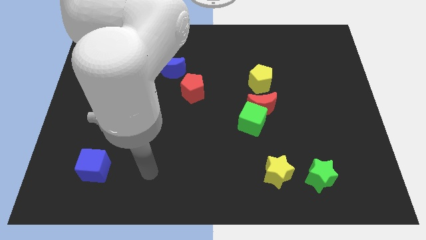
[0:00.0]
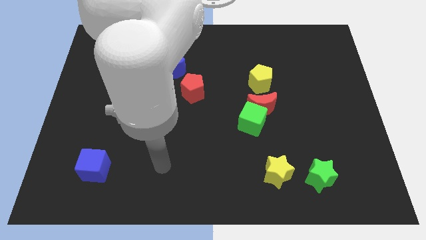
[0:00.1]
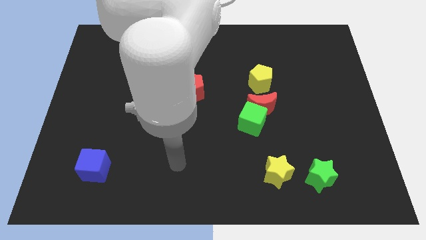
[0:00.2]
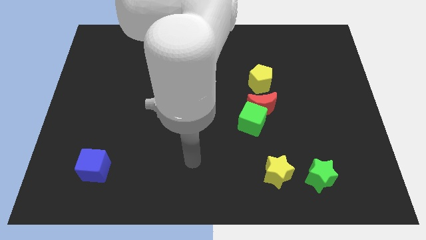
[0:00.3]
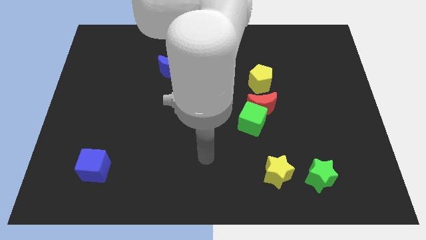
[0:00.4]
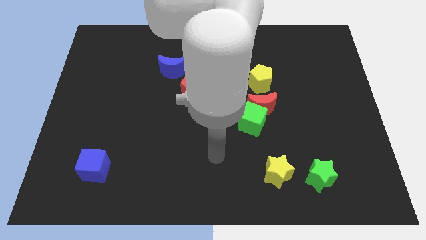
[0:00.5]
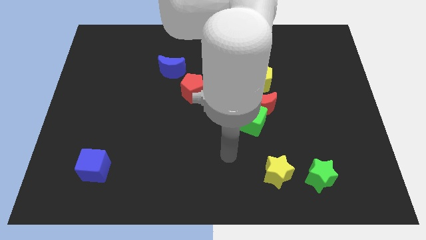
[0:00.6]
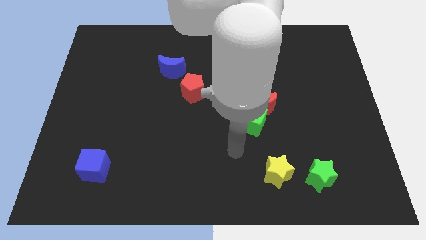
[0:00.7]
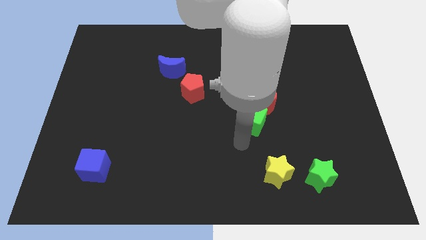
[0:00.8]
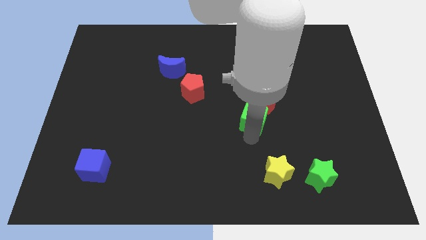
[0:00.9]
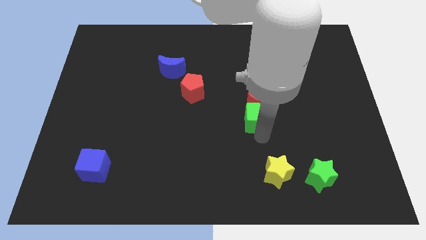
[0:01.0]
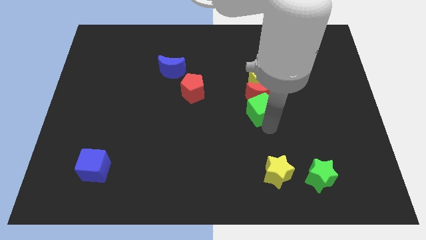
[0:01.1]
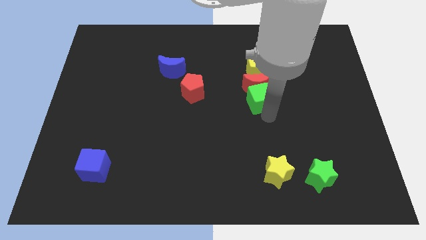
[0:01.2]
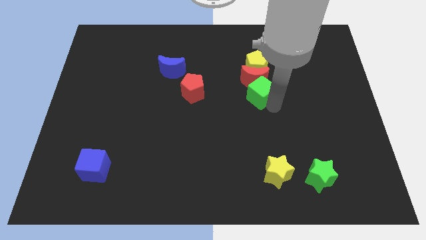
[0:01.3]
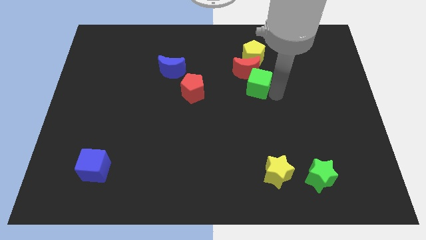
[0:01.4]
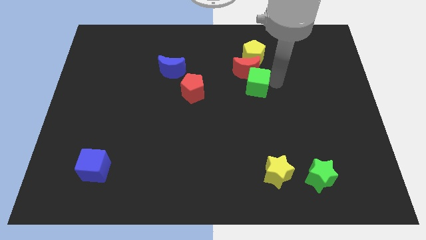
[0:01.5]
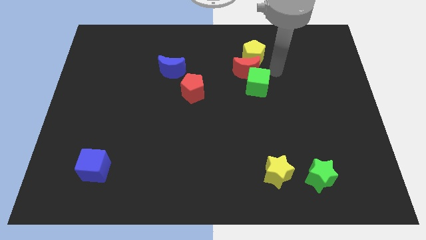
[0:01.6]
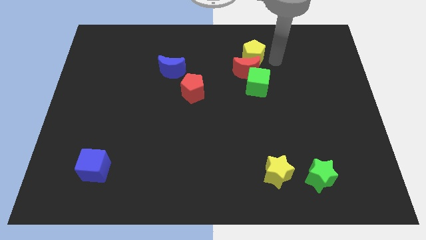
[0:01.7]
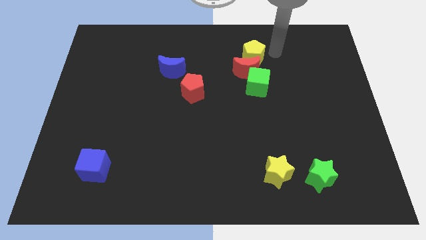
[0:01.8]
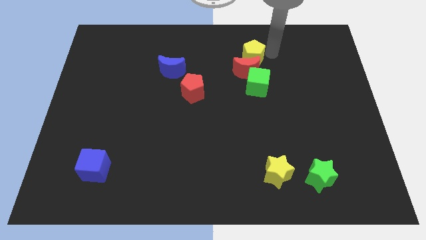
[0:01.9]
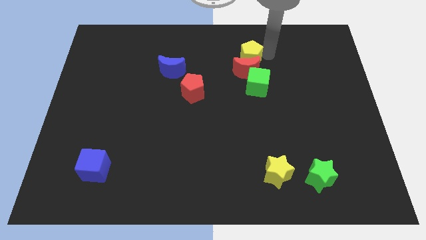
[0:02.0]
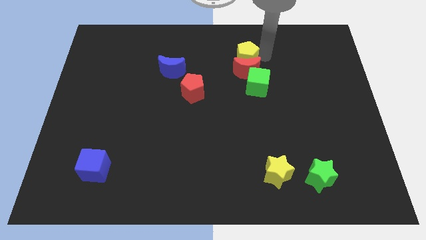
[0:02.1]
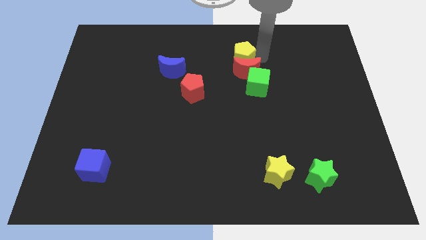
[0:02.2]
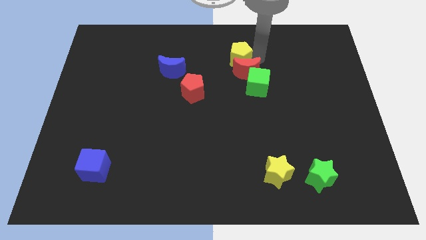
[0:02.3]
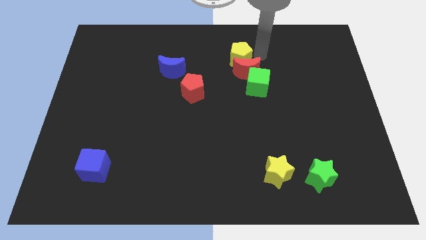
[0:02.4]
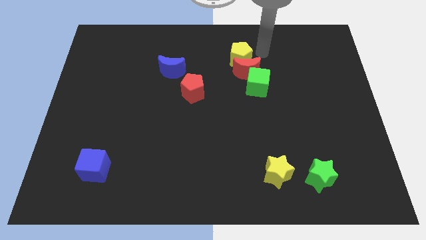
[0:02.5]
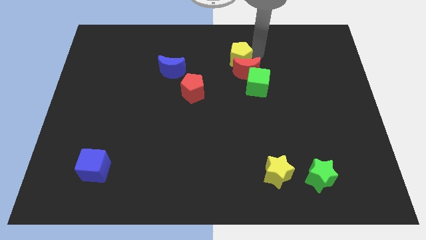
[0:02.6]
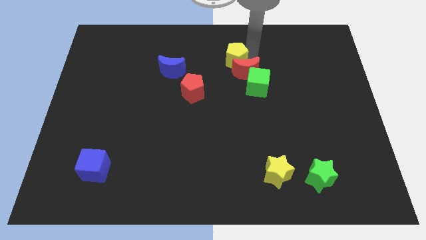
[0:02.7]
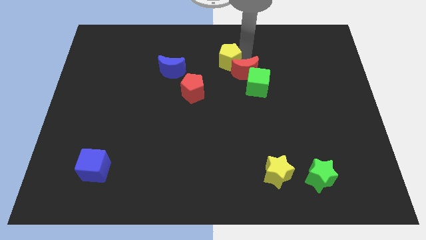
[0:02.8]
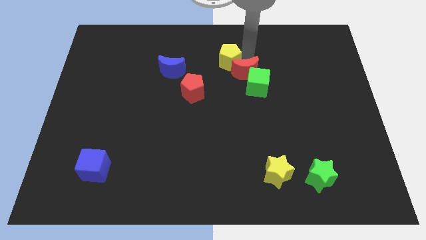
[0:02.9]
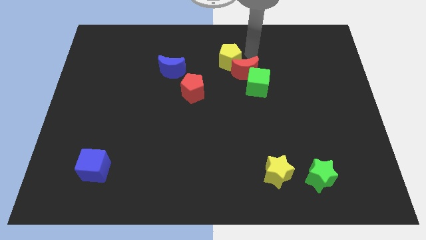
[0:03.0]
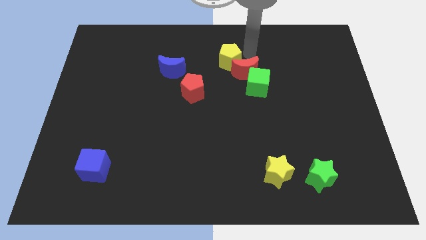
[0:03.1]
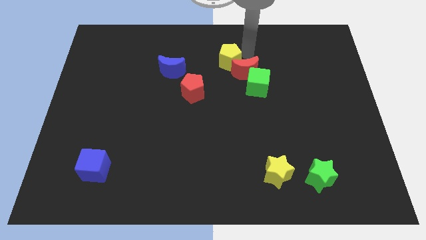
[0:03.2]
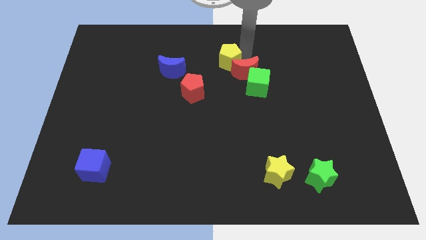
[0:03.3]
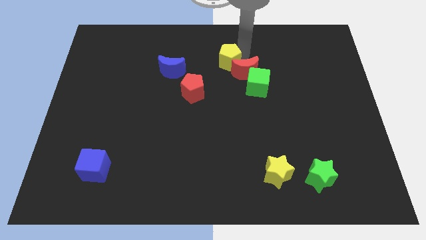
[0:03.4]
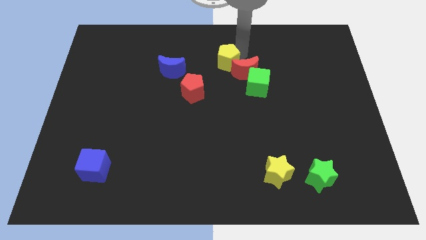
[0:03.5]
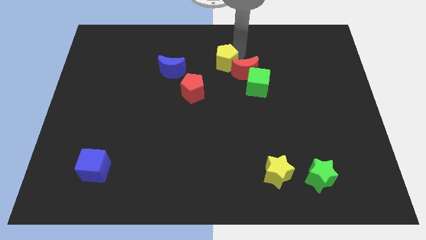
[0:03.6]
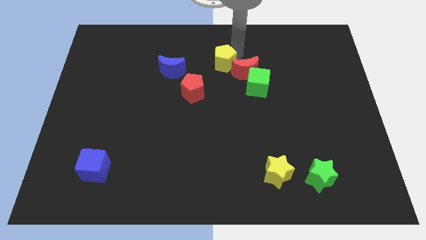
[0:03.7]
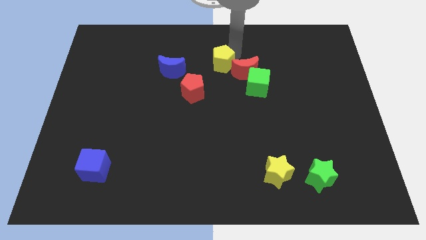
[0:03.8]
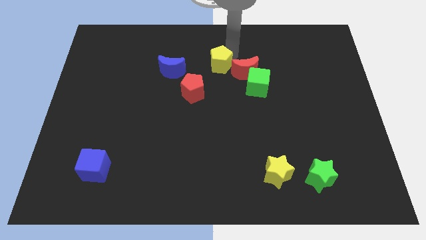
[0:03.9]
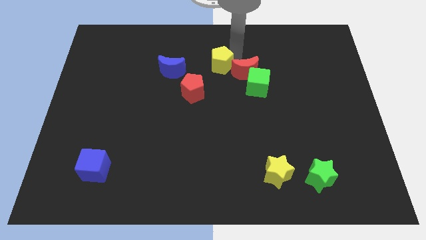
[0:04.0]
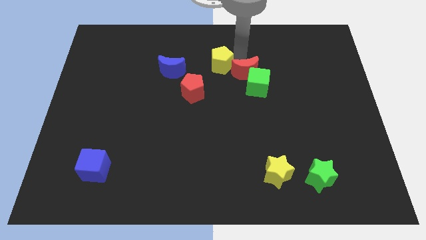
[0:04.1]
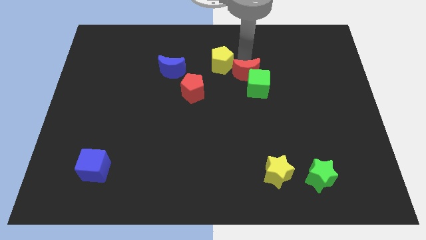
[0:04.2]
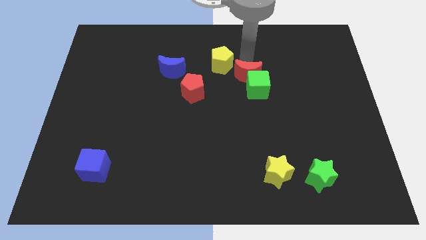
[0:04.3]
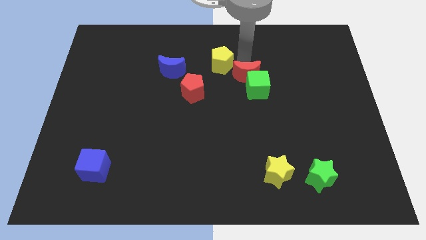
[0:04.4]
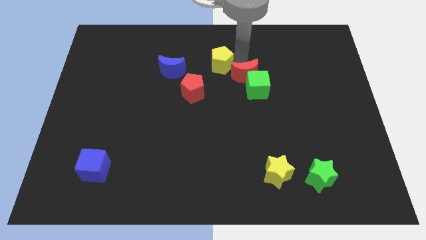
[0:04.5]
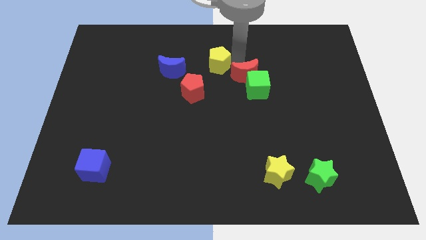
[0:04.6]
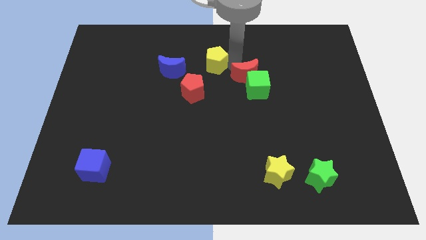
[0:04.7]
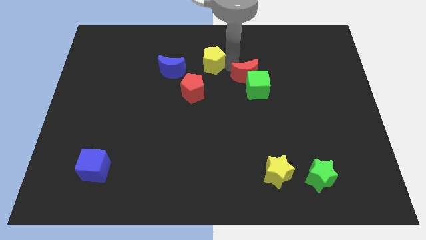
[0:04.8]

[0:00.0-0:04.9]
push the yellow pentagon to the top side of the red pentagon

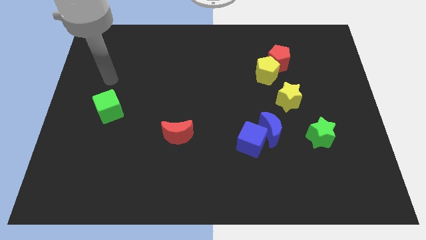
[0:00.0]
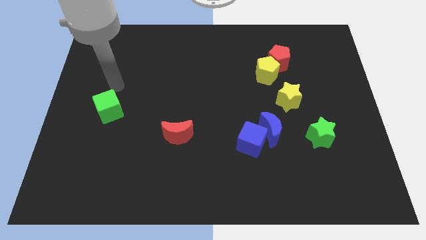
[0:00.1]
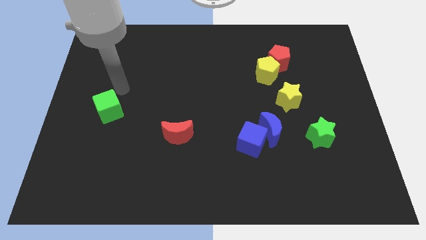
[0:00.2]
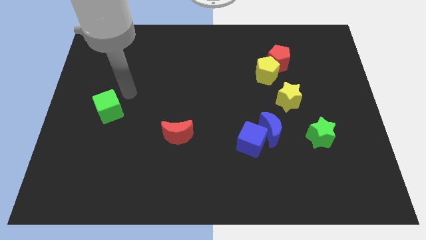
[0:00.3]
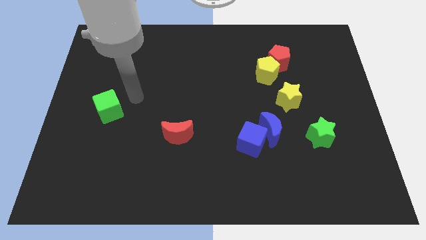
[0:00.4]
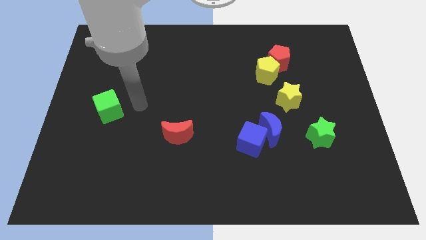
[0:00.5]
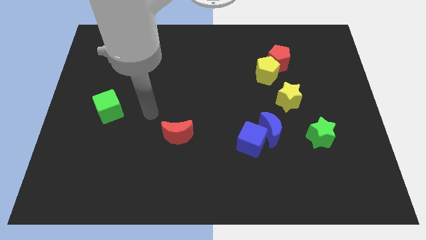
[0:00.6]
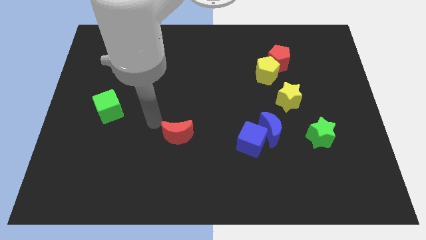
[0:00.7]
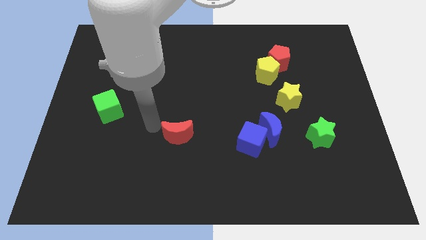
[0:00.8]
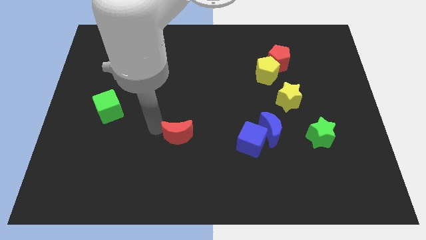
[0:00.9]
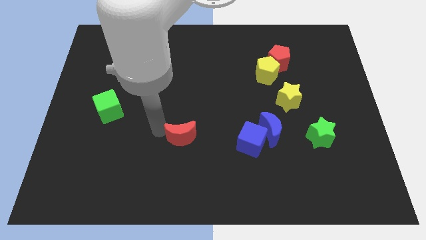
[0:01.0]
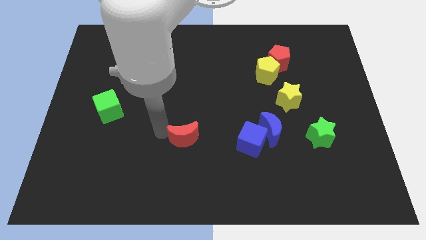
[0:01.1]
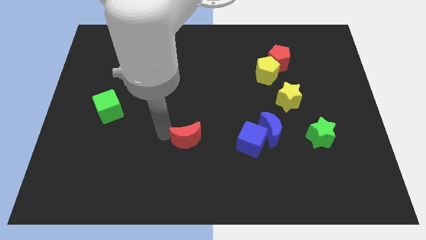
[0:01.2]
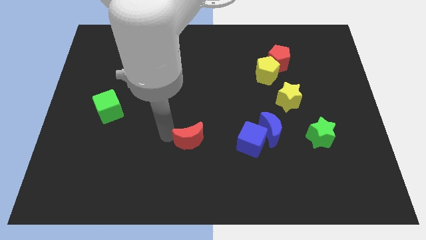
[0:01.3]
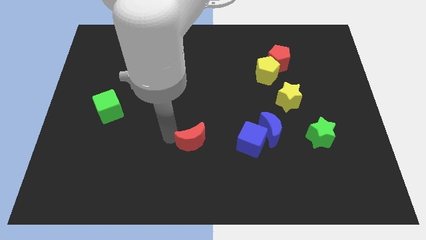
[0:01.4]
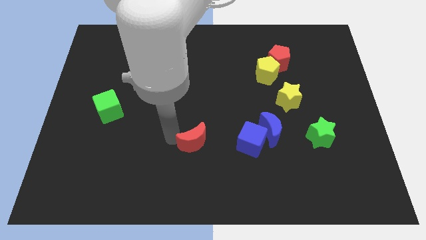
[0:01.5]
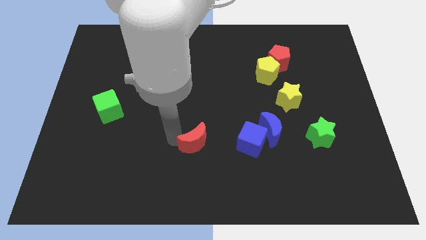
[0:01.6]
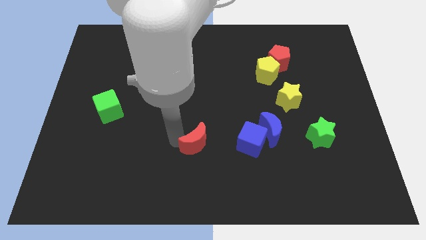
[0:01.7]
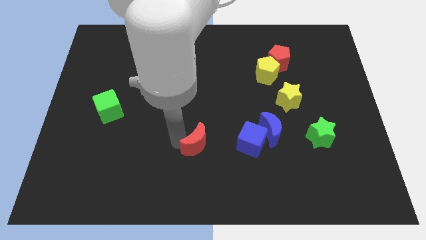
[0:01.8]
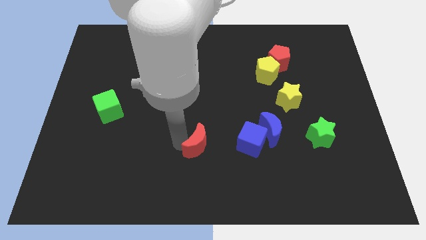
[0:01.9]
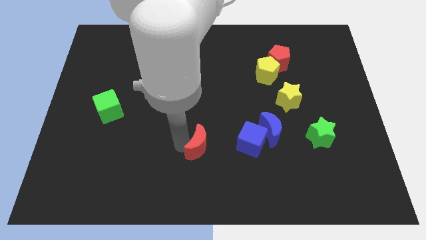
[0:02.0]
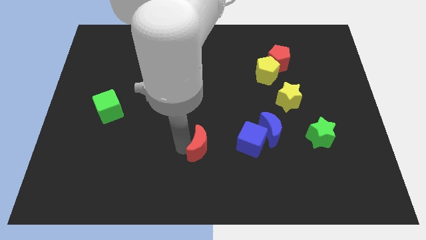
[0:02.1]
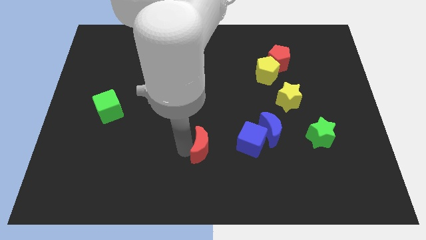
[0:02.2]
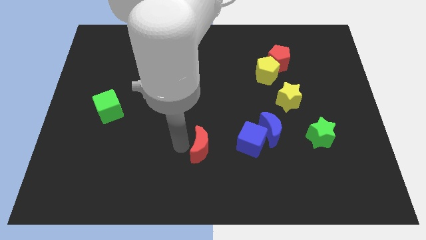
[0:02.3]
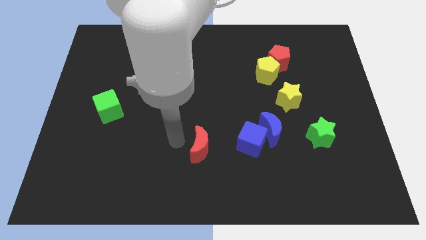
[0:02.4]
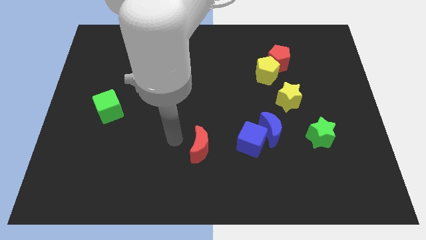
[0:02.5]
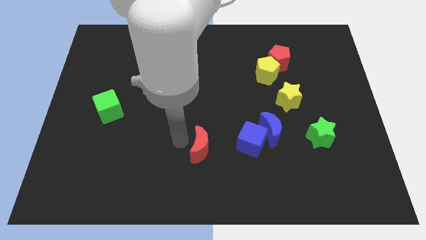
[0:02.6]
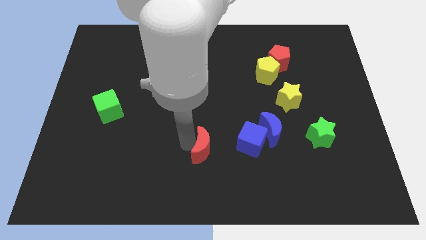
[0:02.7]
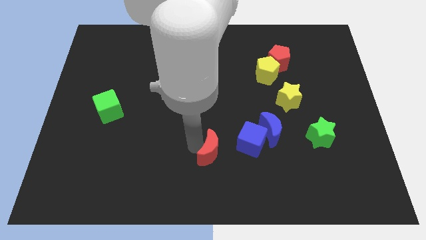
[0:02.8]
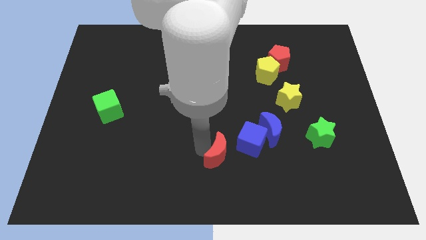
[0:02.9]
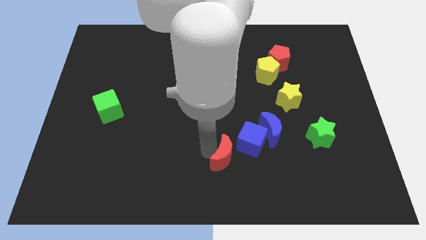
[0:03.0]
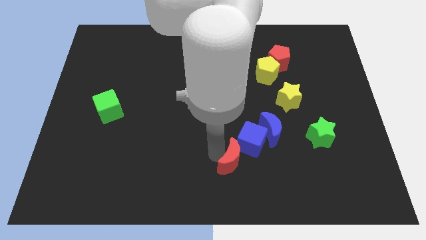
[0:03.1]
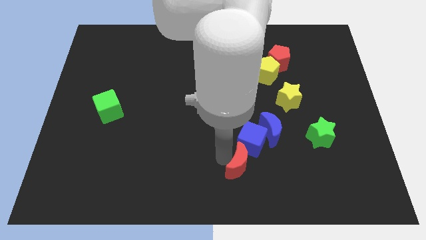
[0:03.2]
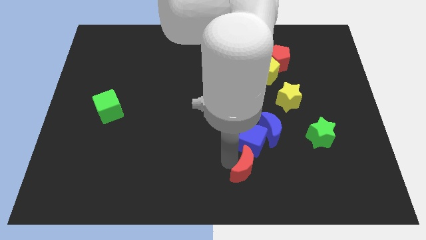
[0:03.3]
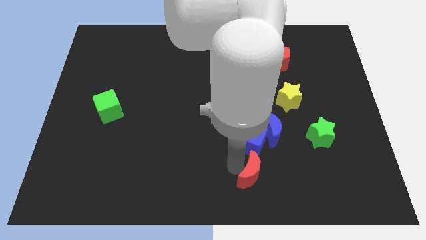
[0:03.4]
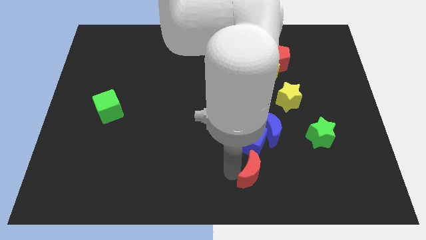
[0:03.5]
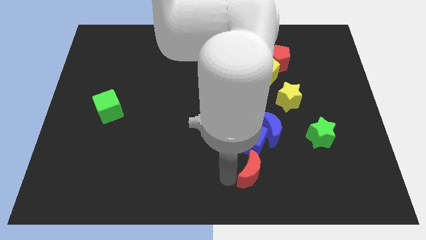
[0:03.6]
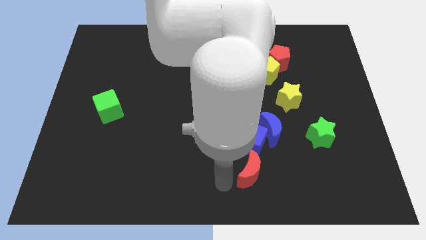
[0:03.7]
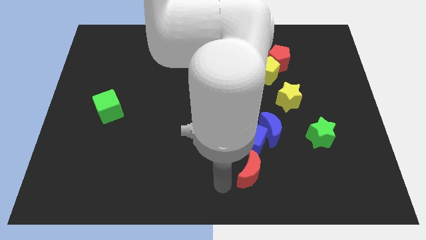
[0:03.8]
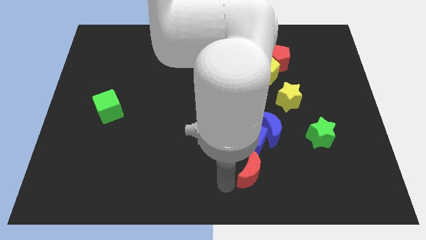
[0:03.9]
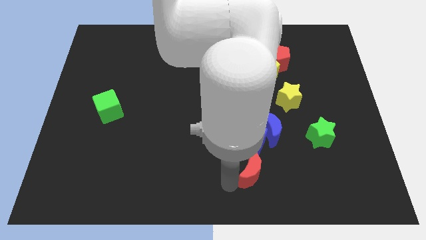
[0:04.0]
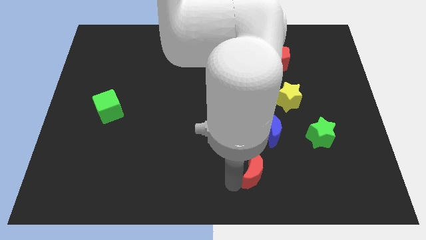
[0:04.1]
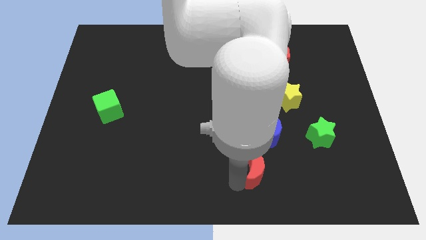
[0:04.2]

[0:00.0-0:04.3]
slide the red moon to the bottom right side of the blue cube
